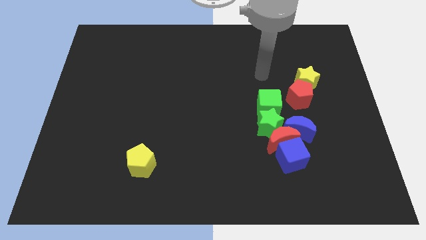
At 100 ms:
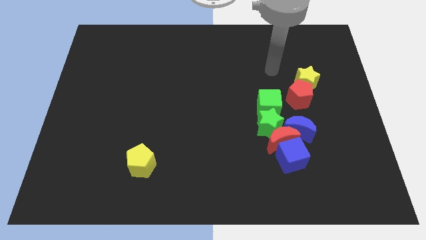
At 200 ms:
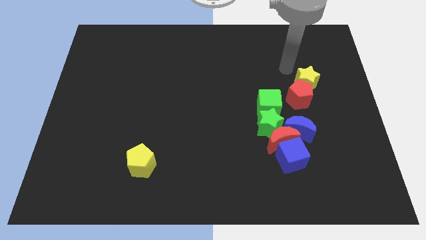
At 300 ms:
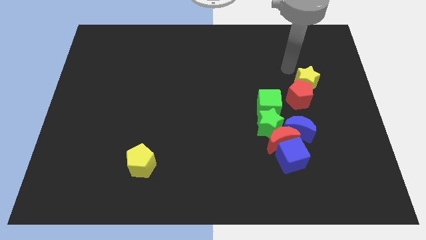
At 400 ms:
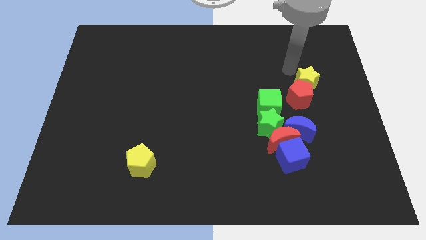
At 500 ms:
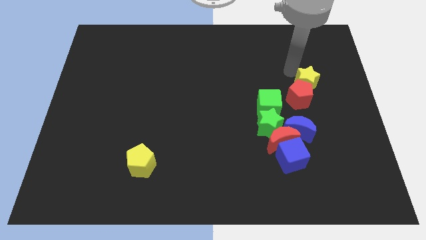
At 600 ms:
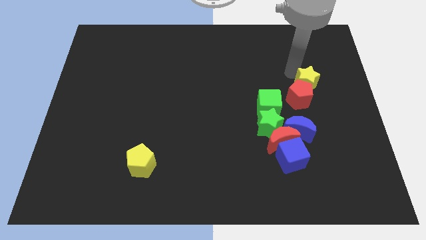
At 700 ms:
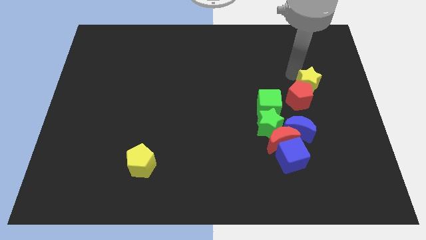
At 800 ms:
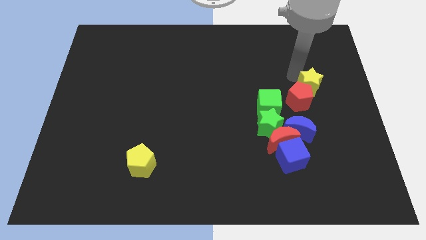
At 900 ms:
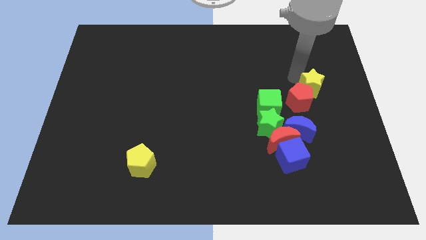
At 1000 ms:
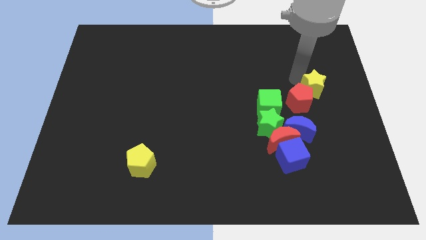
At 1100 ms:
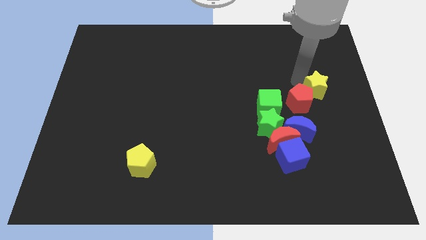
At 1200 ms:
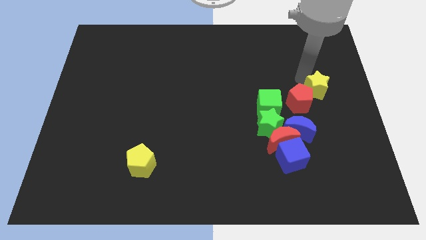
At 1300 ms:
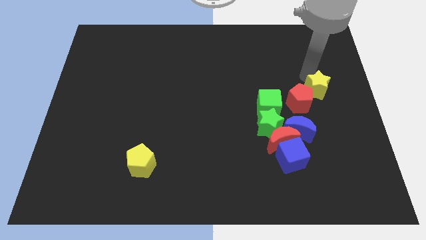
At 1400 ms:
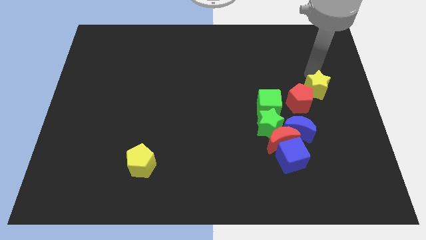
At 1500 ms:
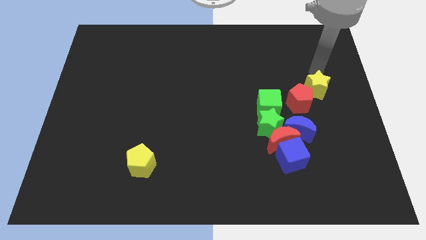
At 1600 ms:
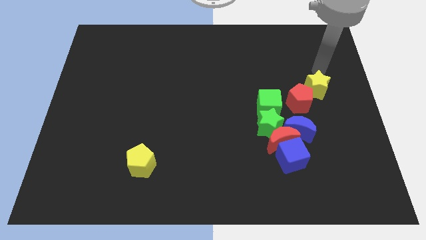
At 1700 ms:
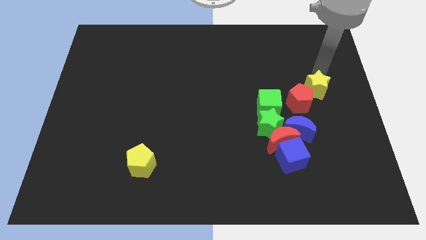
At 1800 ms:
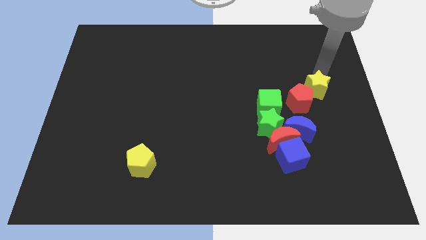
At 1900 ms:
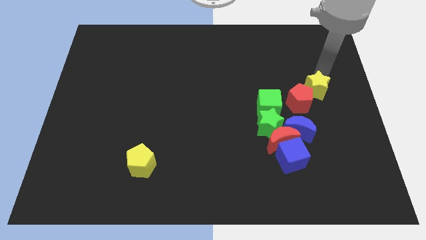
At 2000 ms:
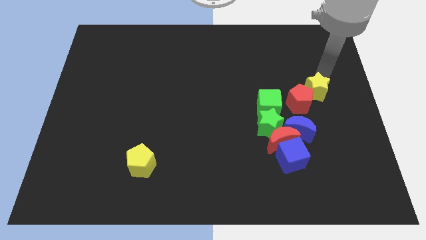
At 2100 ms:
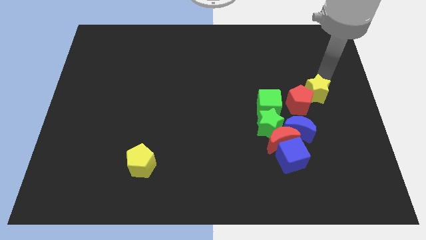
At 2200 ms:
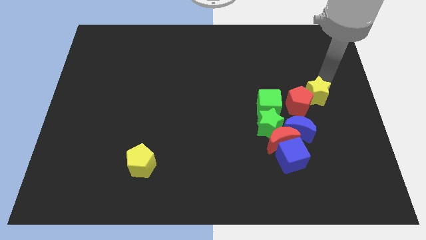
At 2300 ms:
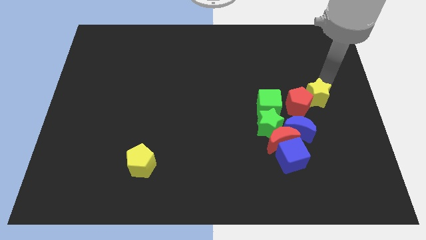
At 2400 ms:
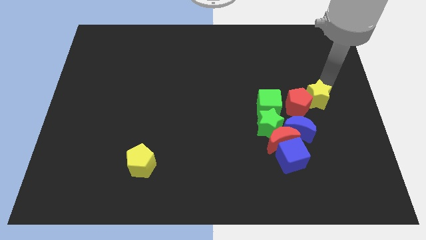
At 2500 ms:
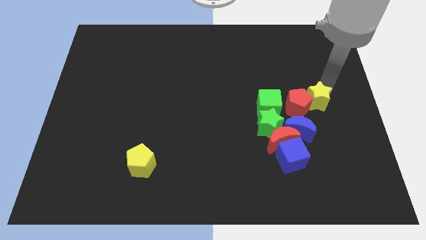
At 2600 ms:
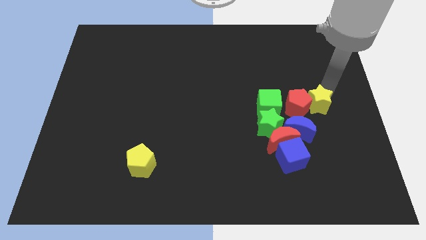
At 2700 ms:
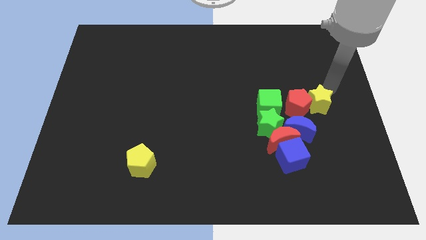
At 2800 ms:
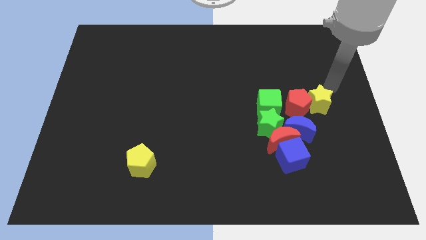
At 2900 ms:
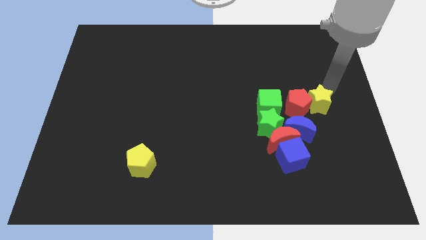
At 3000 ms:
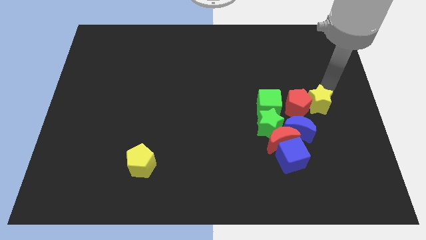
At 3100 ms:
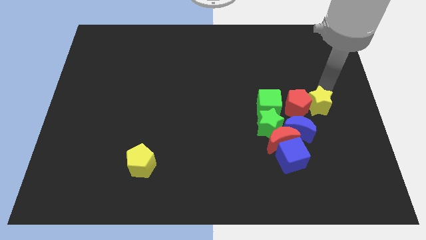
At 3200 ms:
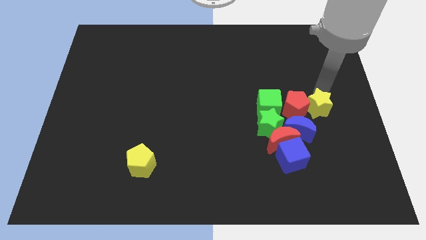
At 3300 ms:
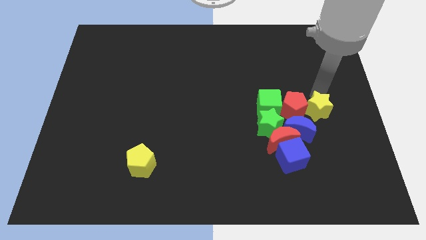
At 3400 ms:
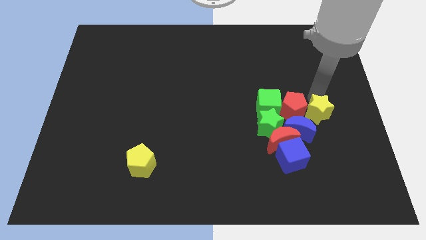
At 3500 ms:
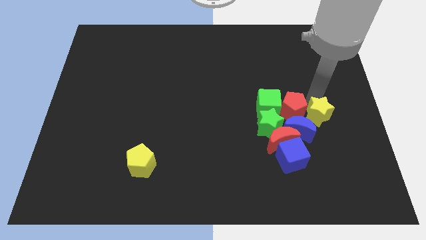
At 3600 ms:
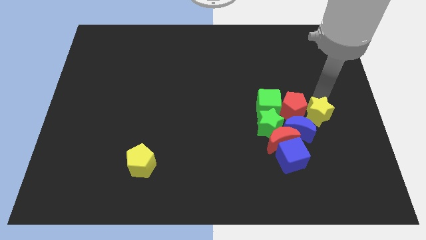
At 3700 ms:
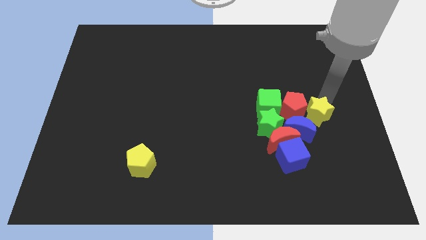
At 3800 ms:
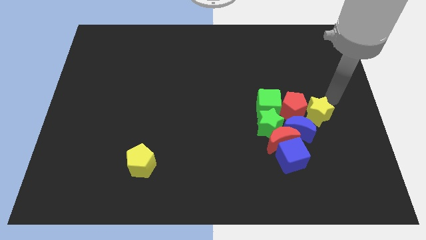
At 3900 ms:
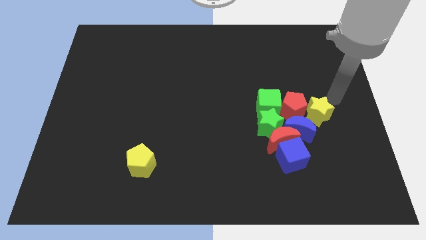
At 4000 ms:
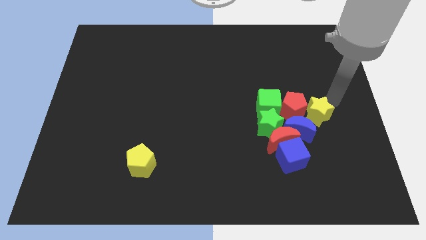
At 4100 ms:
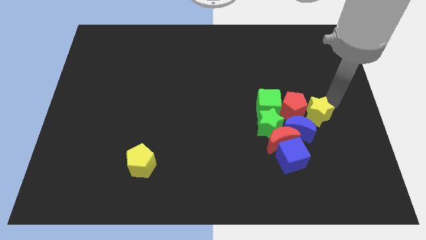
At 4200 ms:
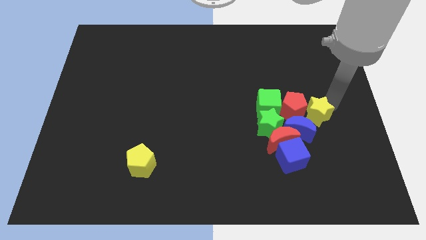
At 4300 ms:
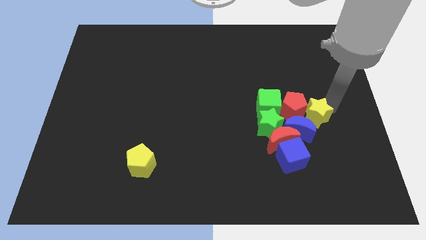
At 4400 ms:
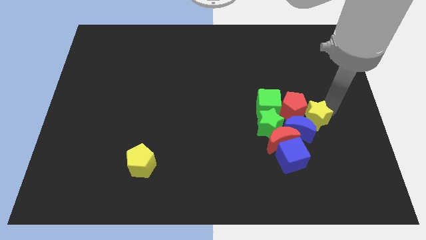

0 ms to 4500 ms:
push the yellow star to the blue moon

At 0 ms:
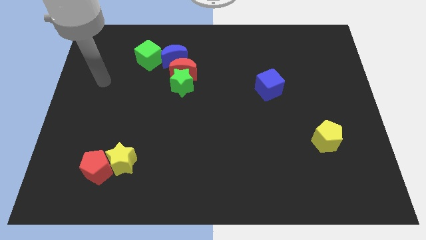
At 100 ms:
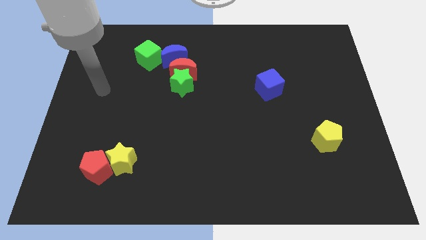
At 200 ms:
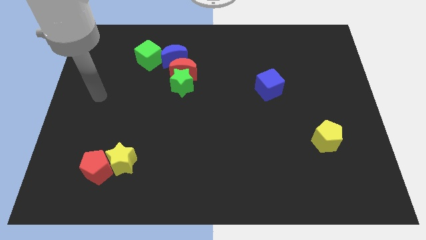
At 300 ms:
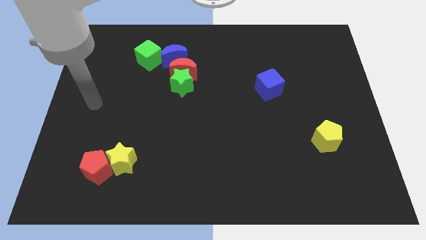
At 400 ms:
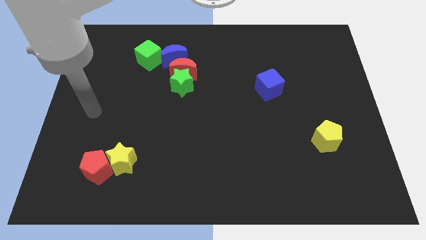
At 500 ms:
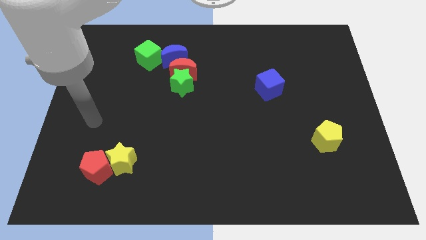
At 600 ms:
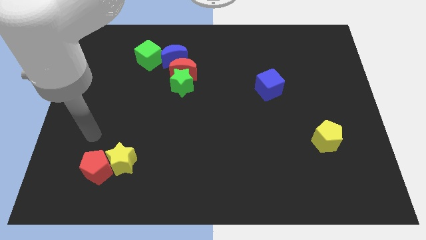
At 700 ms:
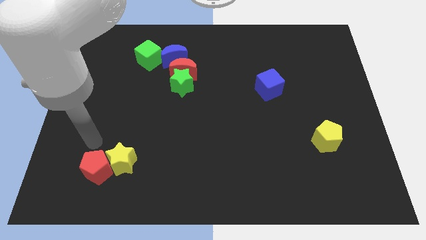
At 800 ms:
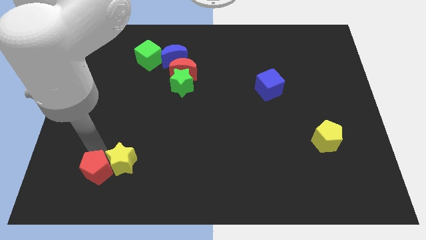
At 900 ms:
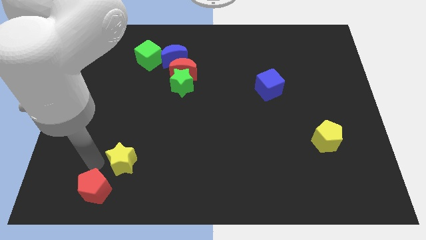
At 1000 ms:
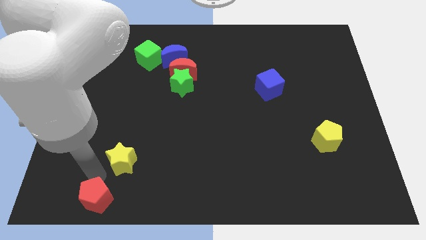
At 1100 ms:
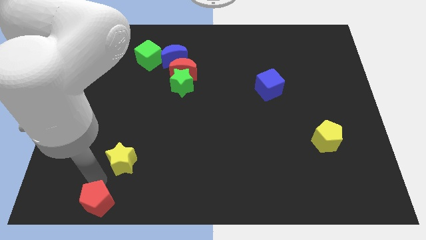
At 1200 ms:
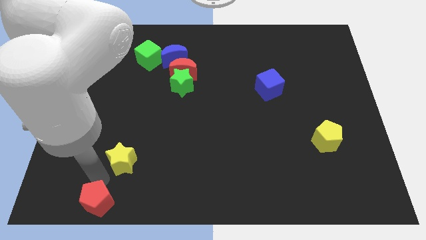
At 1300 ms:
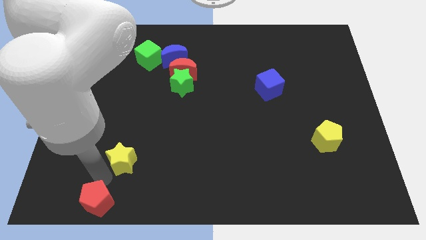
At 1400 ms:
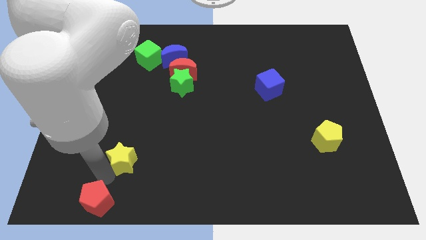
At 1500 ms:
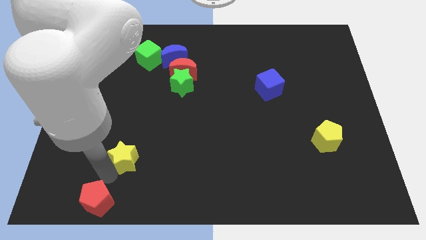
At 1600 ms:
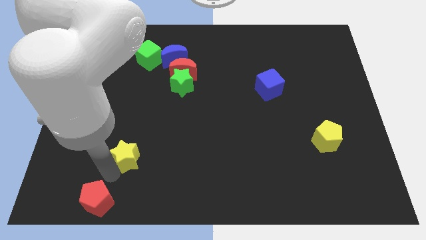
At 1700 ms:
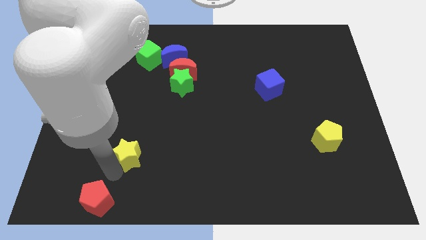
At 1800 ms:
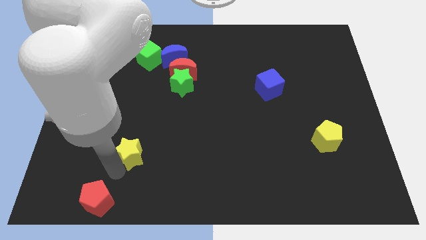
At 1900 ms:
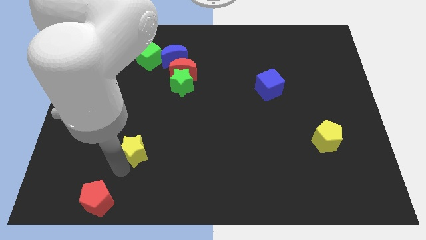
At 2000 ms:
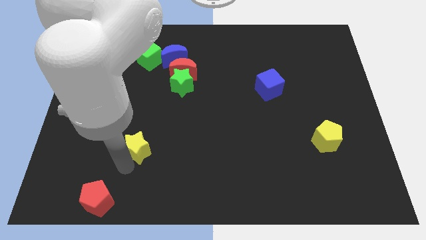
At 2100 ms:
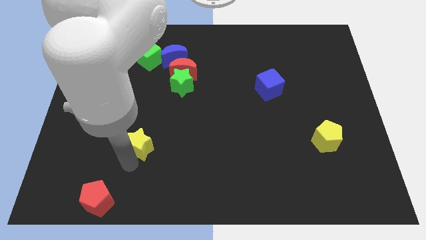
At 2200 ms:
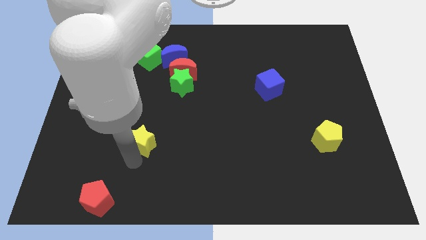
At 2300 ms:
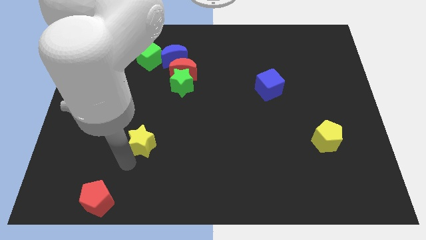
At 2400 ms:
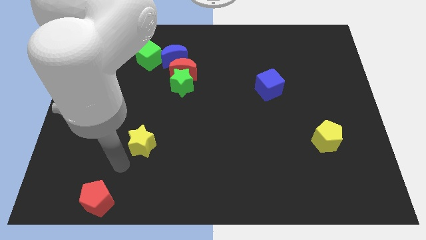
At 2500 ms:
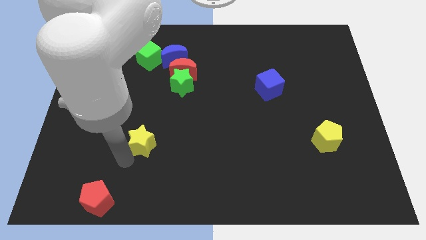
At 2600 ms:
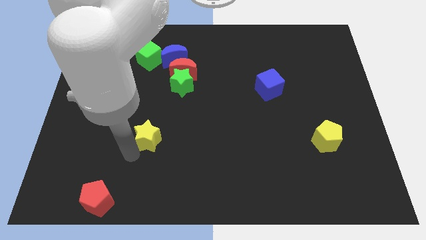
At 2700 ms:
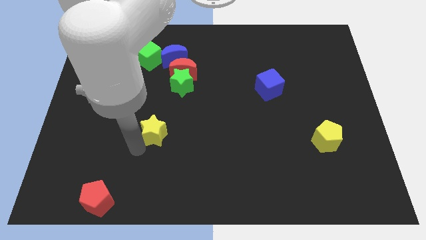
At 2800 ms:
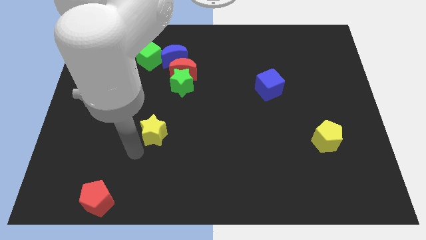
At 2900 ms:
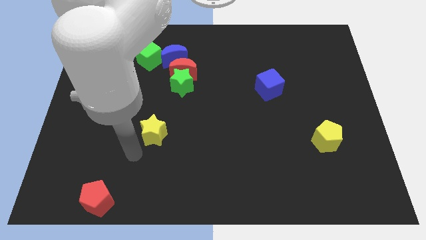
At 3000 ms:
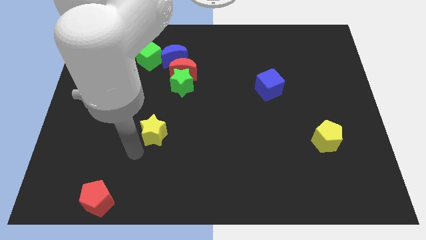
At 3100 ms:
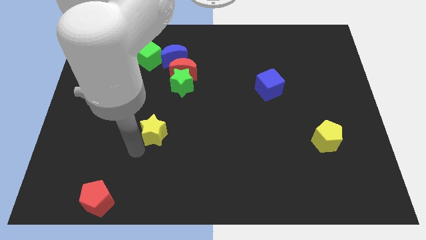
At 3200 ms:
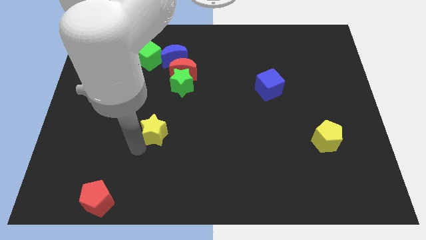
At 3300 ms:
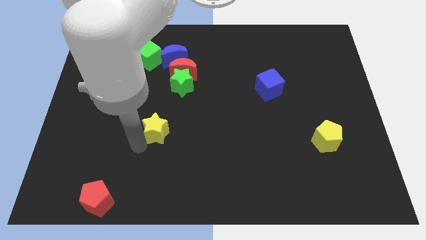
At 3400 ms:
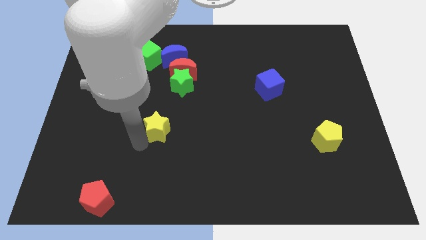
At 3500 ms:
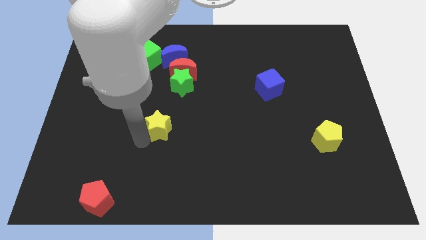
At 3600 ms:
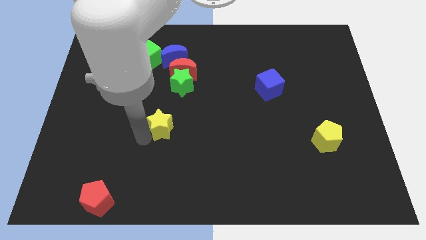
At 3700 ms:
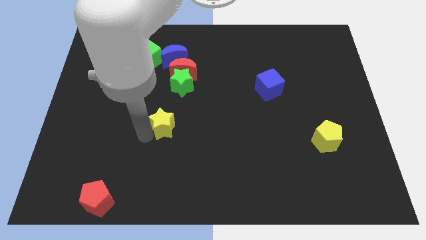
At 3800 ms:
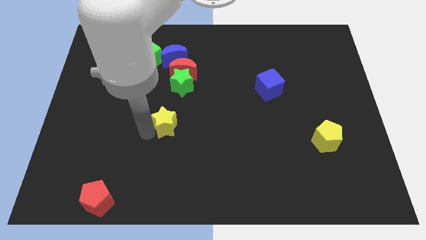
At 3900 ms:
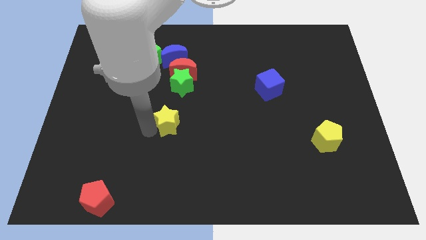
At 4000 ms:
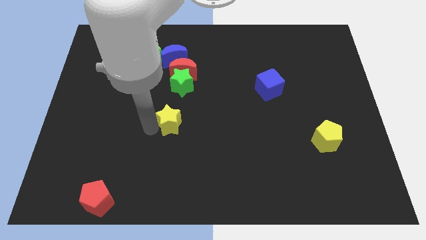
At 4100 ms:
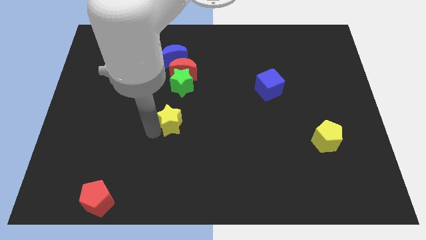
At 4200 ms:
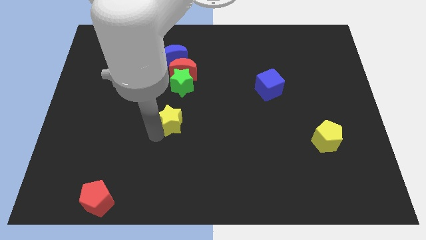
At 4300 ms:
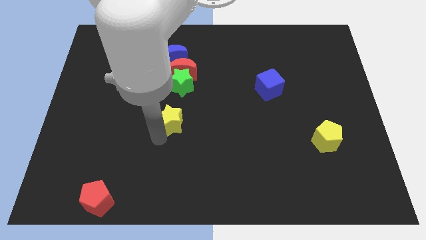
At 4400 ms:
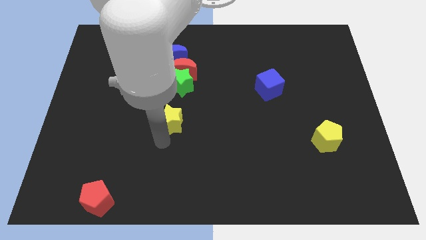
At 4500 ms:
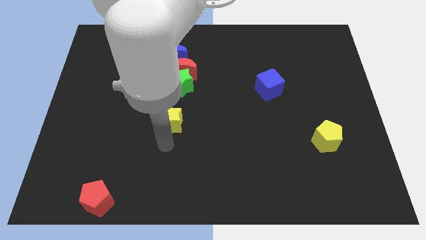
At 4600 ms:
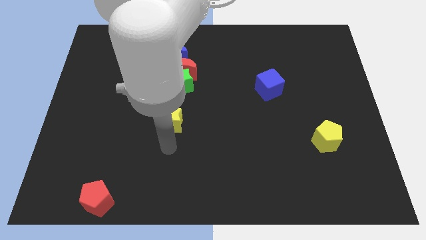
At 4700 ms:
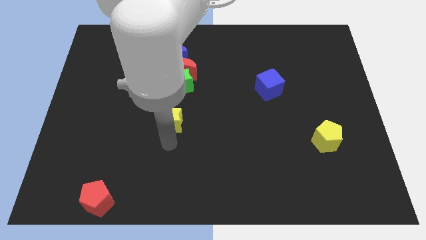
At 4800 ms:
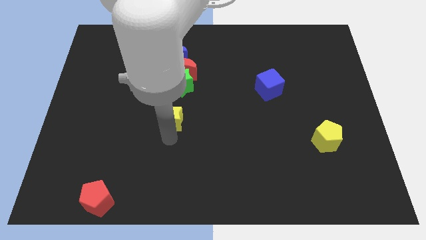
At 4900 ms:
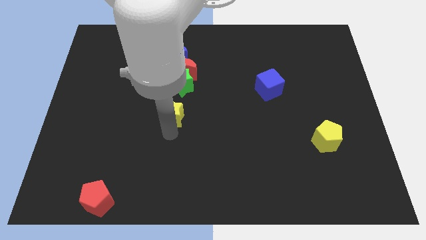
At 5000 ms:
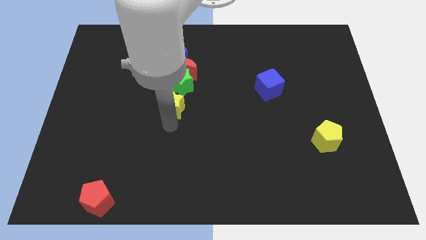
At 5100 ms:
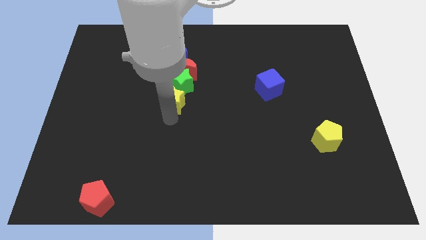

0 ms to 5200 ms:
slide the yellow star next to the green star
